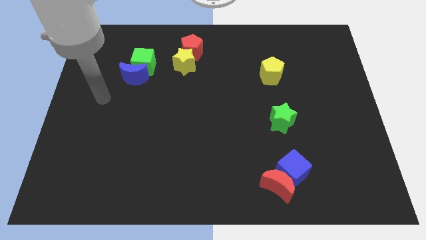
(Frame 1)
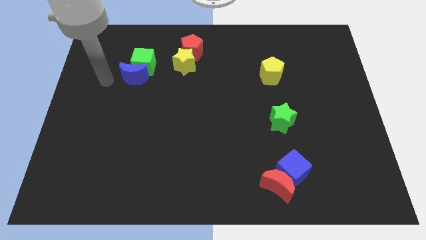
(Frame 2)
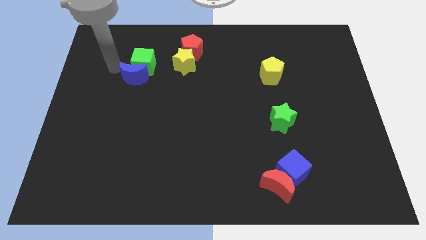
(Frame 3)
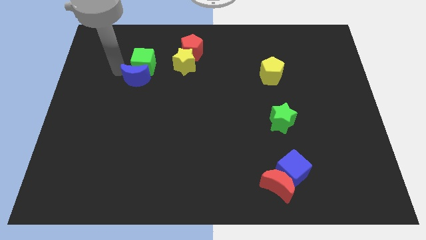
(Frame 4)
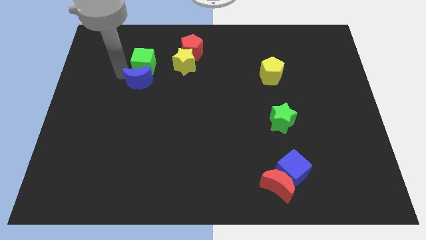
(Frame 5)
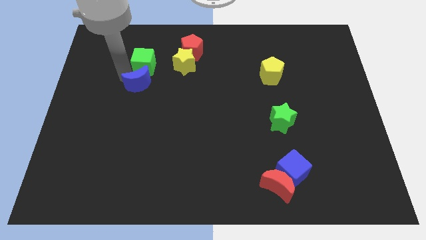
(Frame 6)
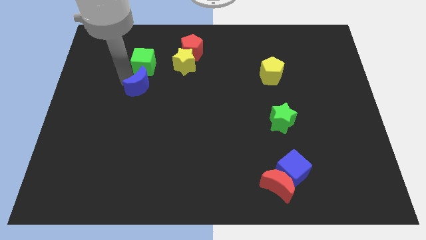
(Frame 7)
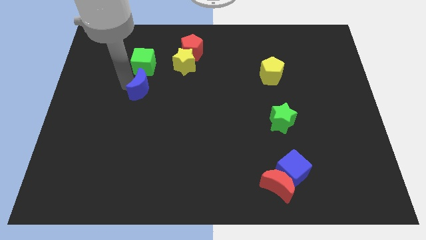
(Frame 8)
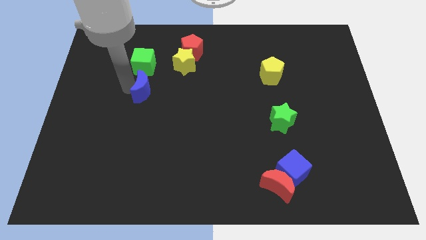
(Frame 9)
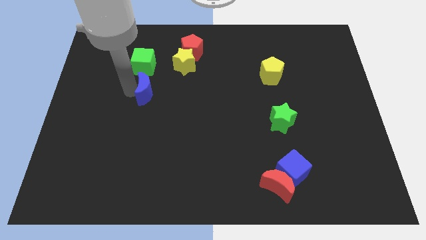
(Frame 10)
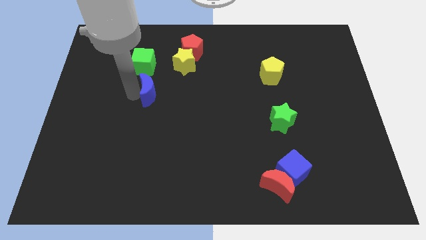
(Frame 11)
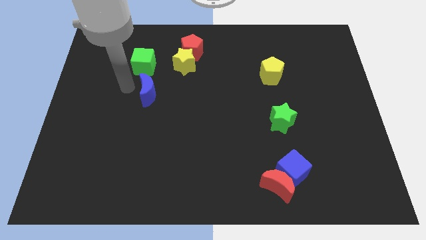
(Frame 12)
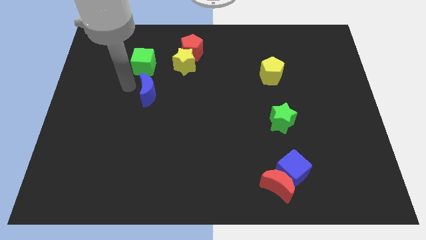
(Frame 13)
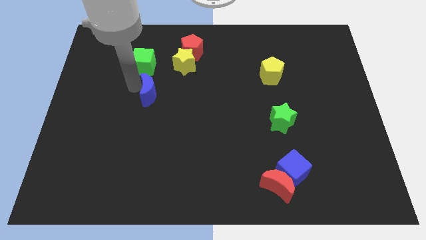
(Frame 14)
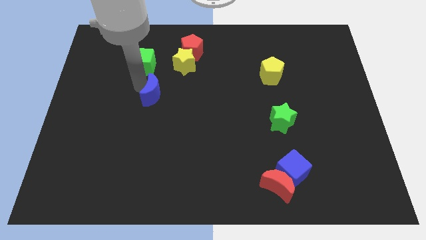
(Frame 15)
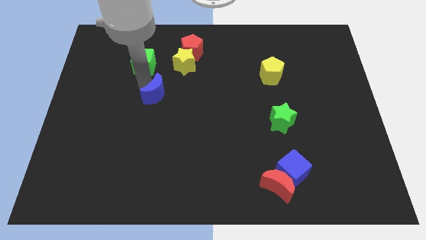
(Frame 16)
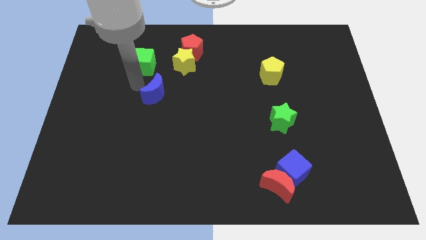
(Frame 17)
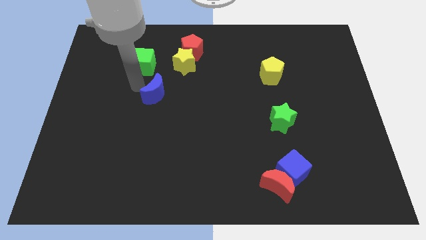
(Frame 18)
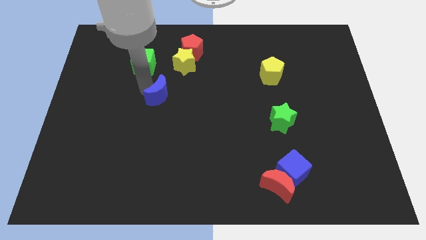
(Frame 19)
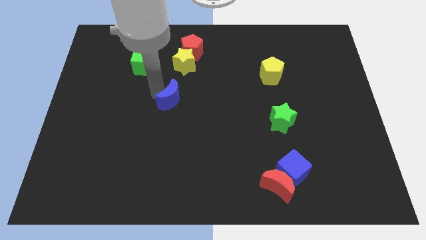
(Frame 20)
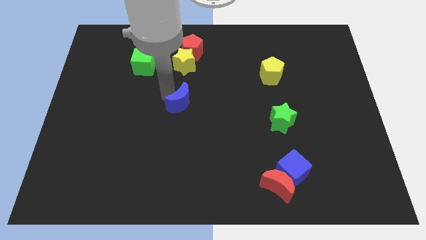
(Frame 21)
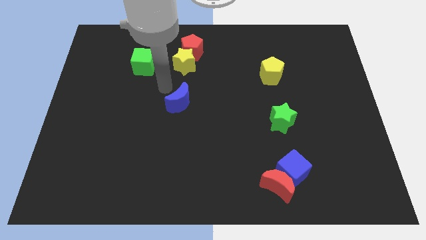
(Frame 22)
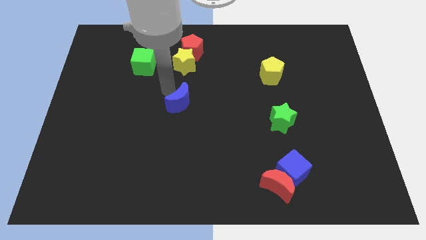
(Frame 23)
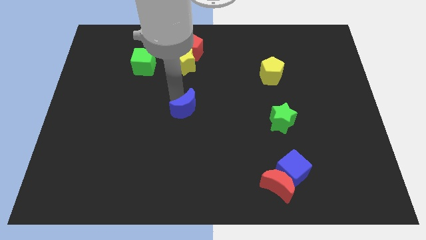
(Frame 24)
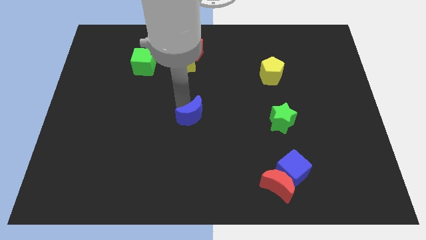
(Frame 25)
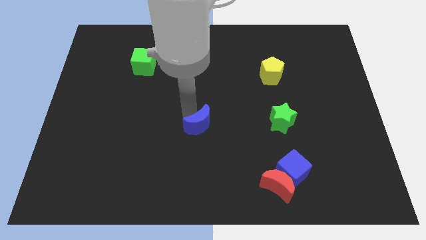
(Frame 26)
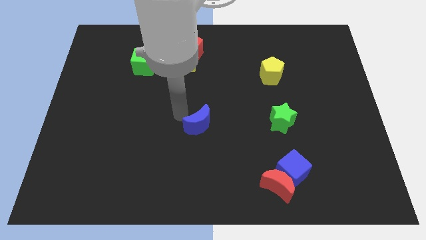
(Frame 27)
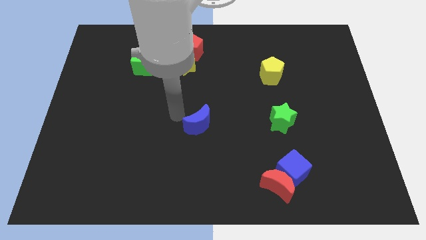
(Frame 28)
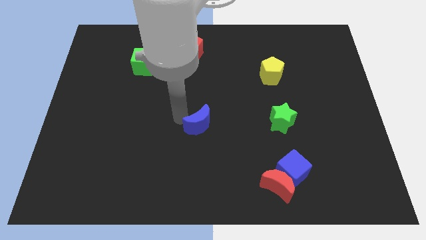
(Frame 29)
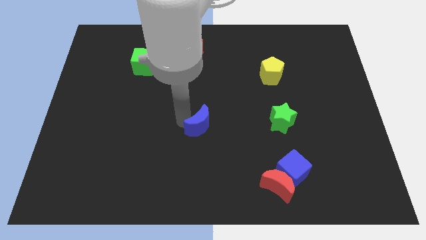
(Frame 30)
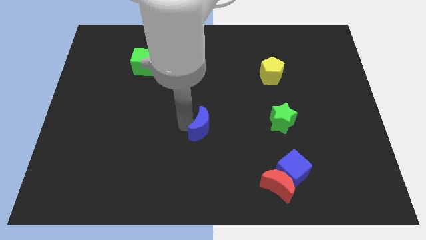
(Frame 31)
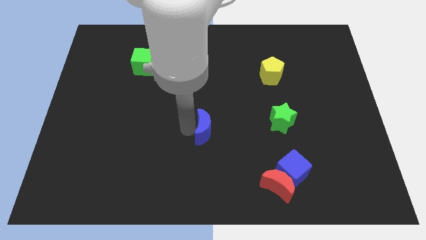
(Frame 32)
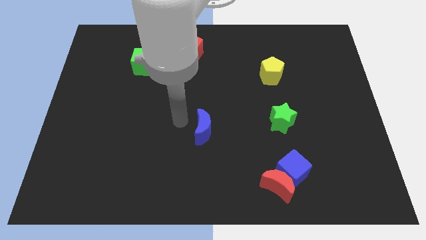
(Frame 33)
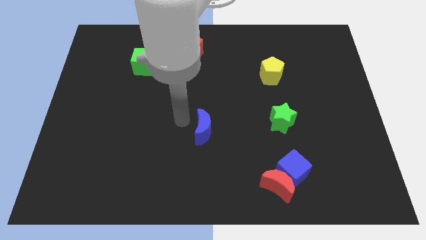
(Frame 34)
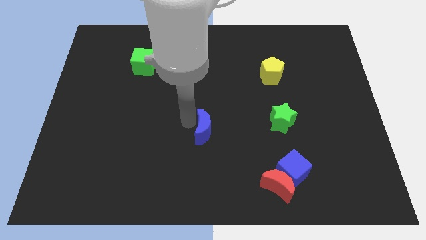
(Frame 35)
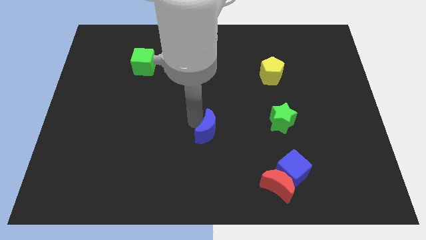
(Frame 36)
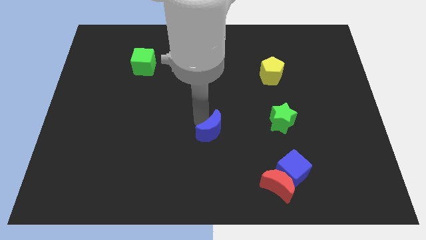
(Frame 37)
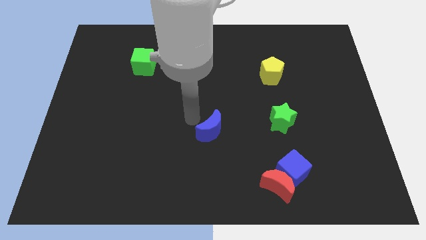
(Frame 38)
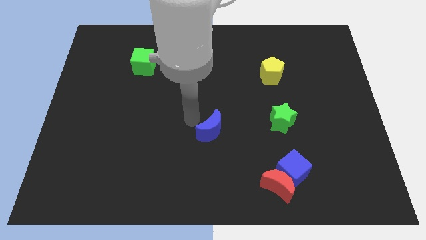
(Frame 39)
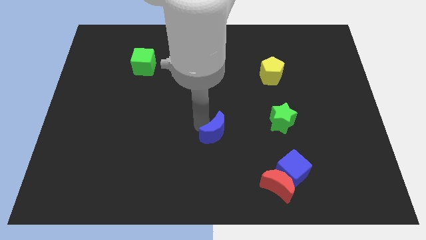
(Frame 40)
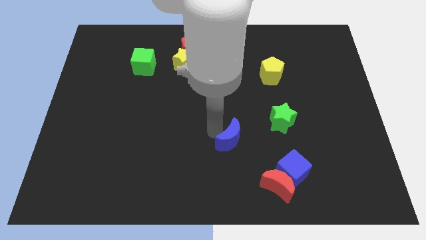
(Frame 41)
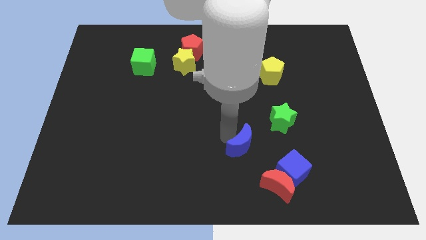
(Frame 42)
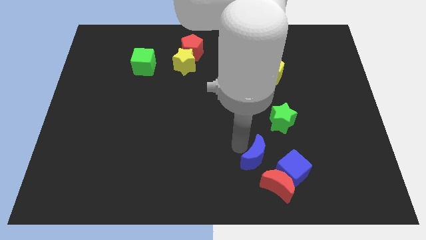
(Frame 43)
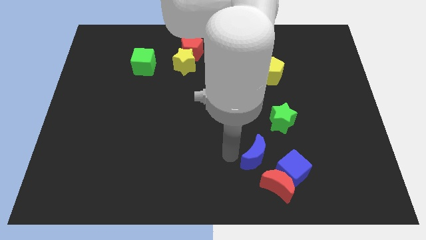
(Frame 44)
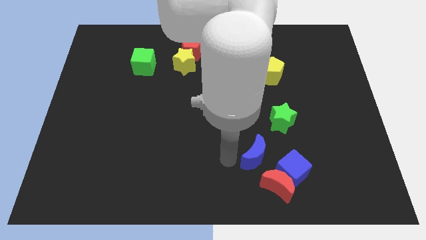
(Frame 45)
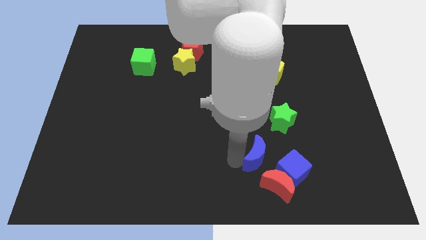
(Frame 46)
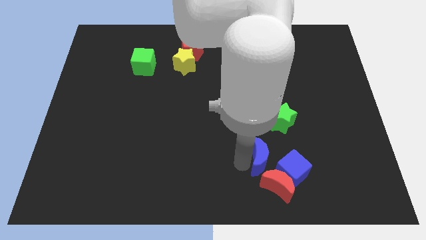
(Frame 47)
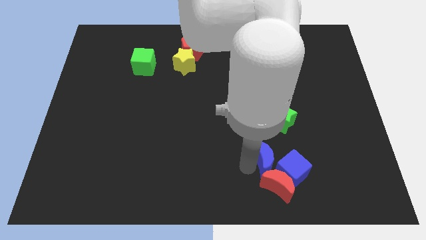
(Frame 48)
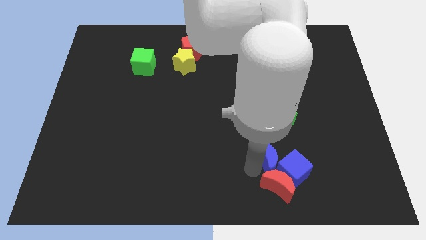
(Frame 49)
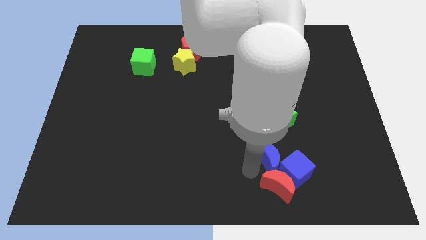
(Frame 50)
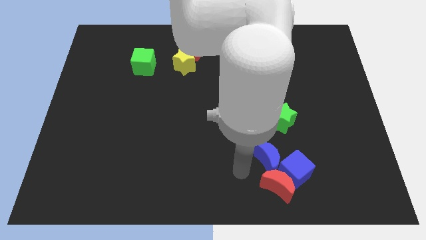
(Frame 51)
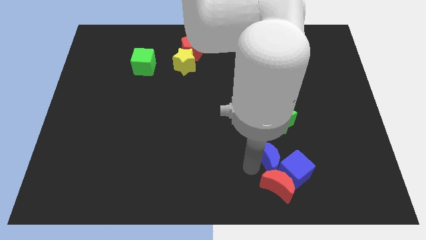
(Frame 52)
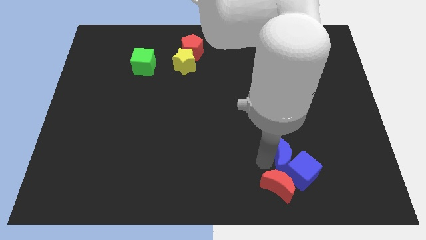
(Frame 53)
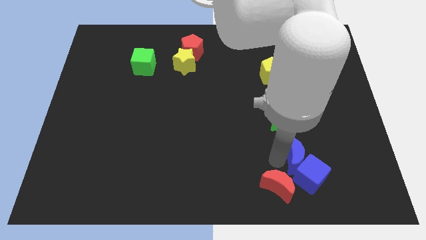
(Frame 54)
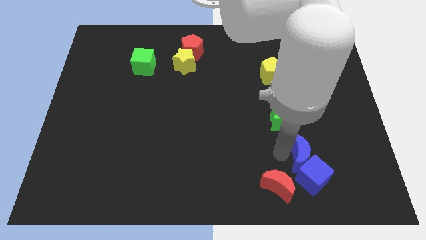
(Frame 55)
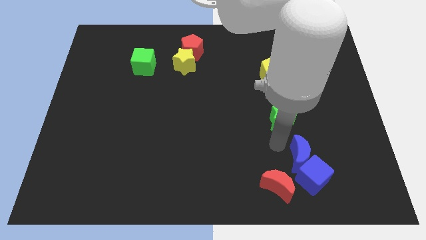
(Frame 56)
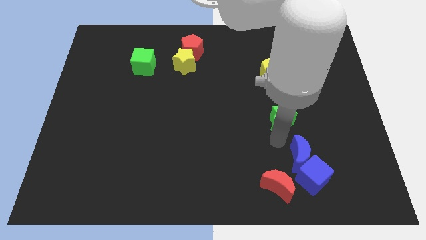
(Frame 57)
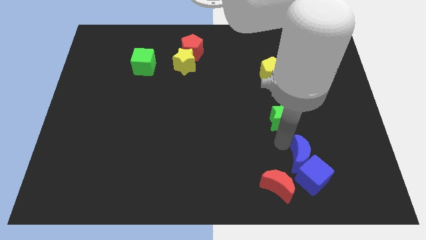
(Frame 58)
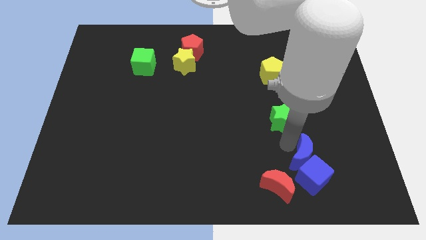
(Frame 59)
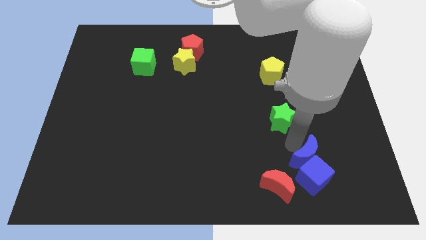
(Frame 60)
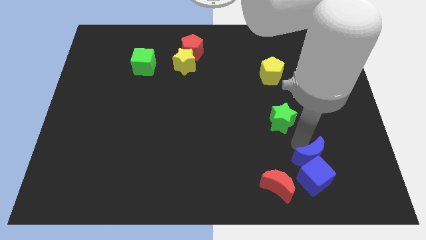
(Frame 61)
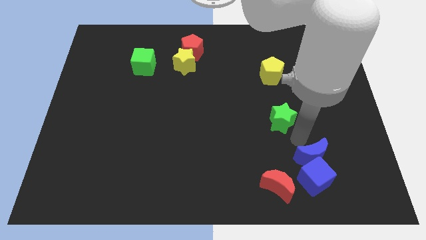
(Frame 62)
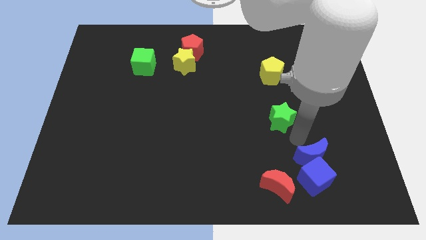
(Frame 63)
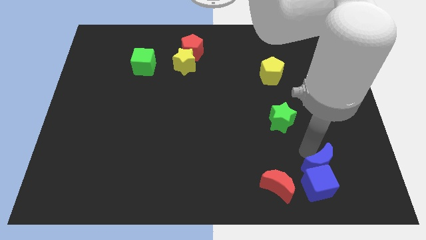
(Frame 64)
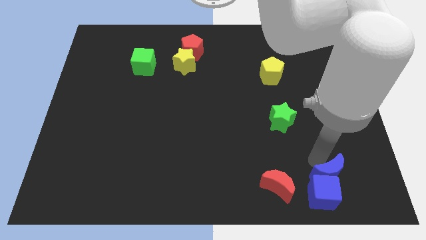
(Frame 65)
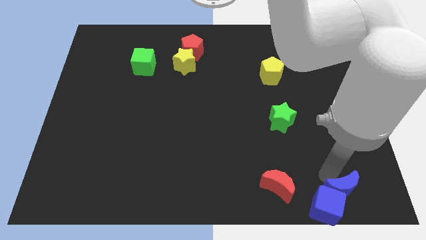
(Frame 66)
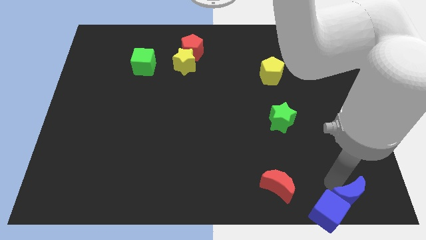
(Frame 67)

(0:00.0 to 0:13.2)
move the blue moon to the lower right corner
